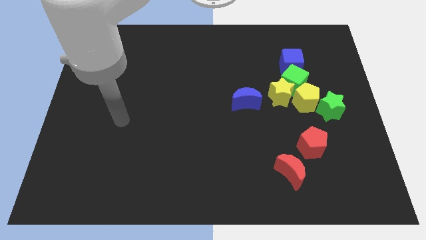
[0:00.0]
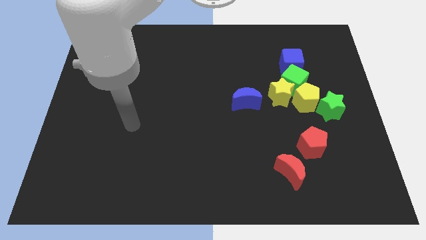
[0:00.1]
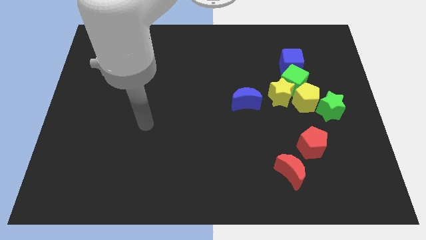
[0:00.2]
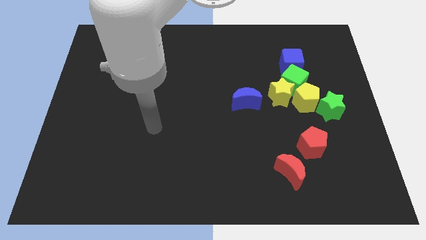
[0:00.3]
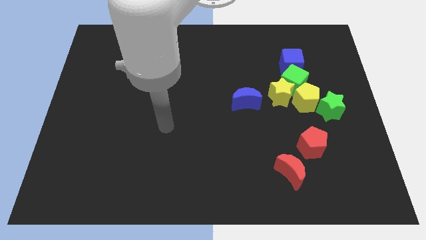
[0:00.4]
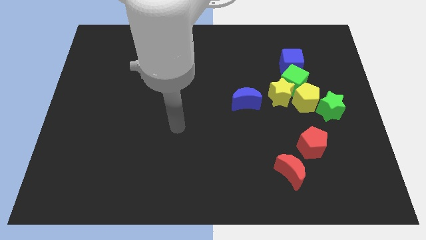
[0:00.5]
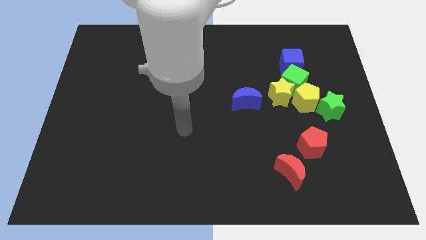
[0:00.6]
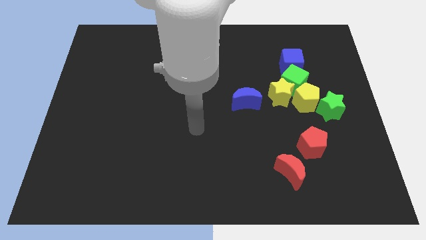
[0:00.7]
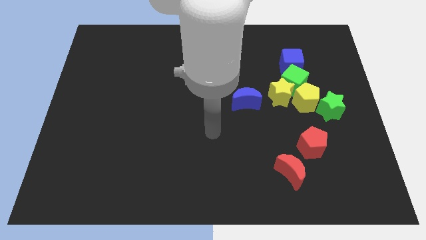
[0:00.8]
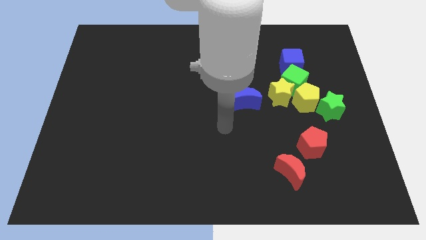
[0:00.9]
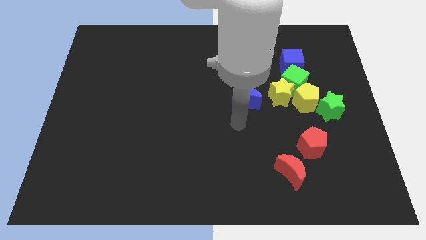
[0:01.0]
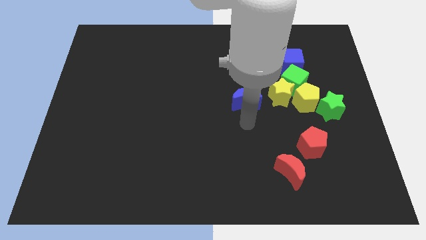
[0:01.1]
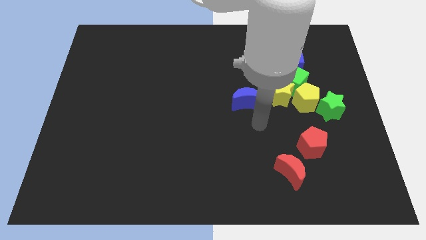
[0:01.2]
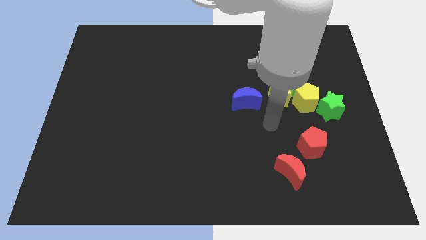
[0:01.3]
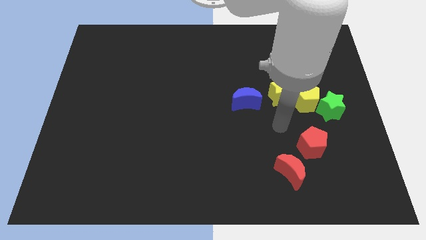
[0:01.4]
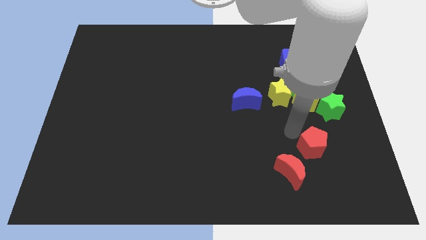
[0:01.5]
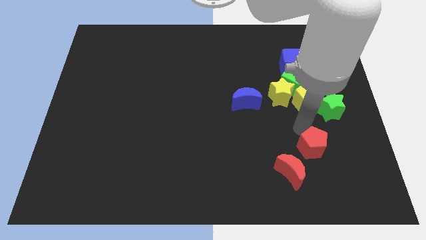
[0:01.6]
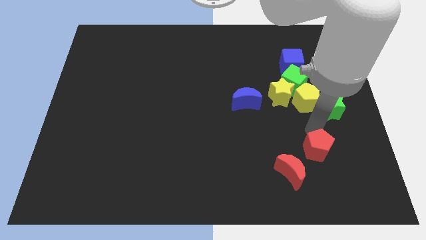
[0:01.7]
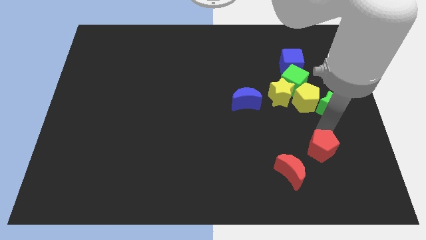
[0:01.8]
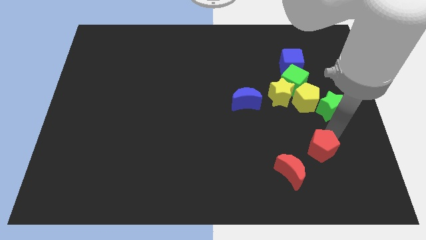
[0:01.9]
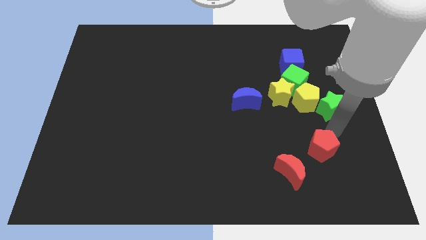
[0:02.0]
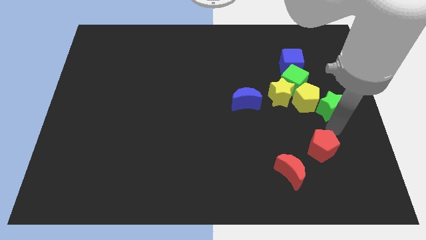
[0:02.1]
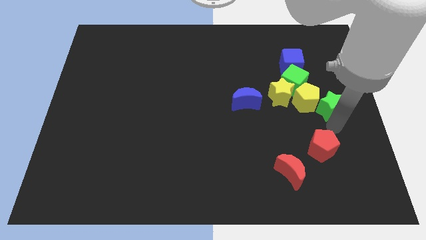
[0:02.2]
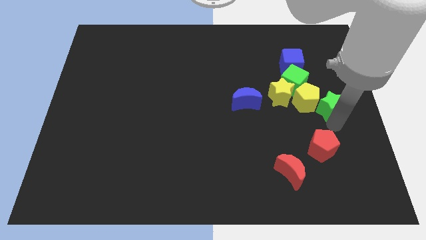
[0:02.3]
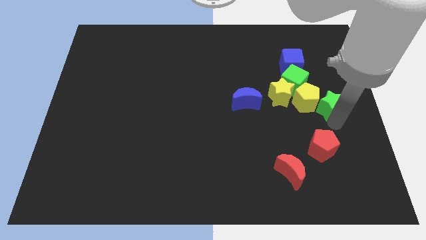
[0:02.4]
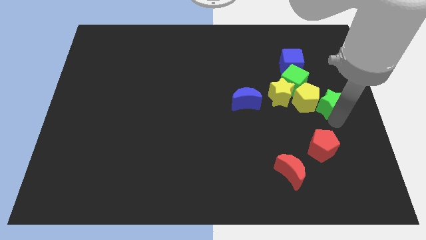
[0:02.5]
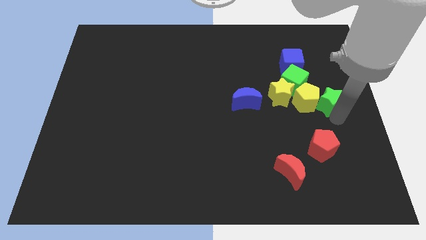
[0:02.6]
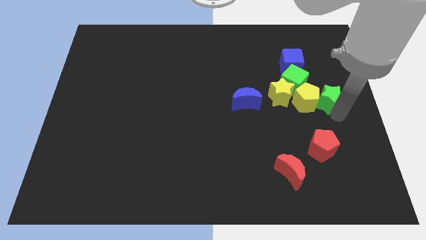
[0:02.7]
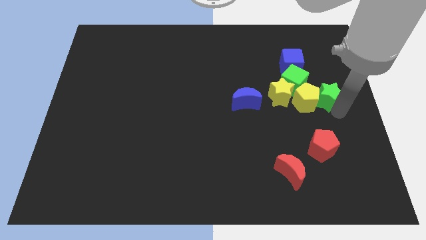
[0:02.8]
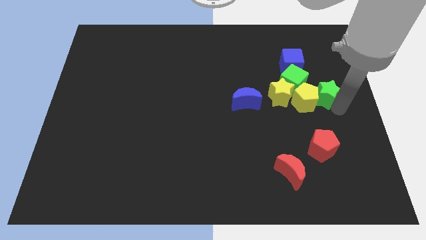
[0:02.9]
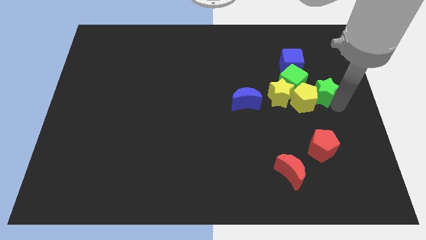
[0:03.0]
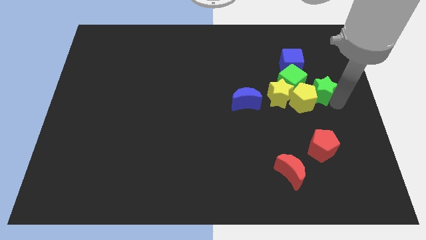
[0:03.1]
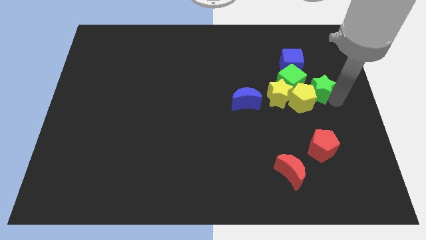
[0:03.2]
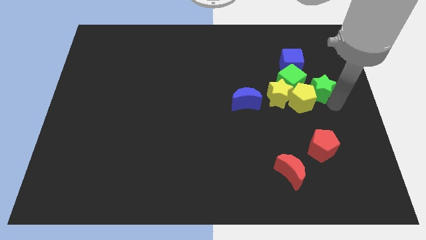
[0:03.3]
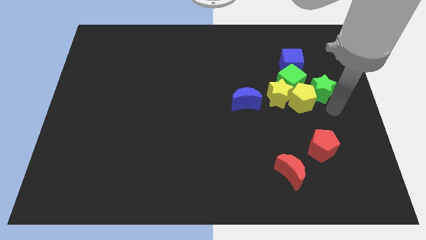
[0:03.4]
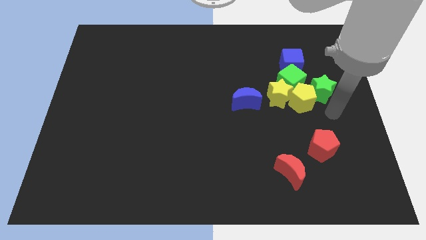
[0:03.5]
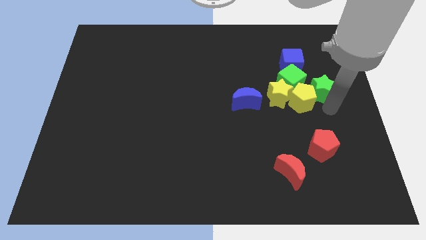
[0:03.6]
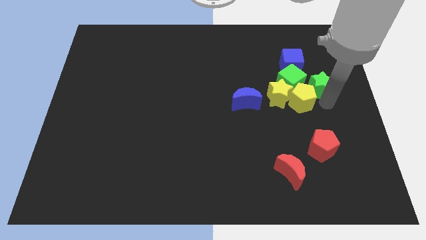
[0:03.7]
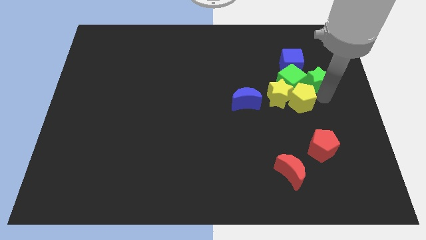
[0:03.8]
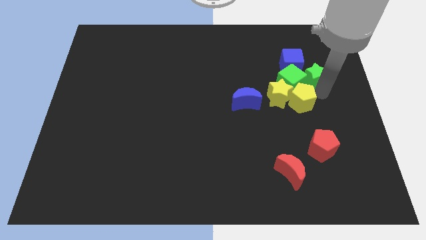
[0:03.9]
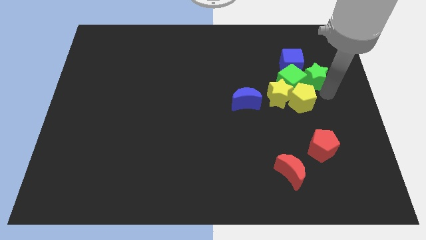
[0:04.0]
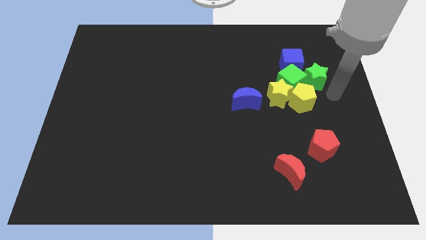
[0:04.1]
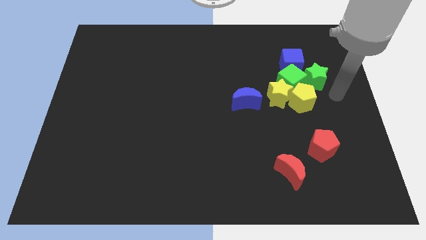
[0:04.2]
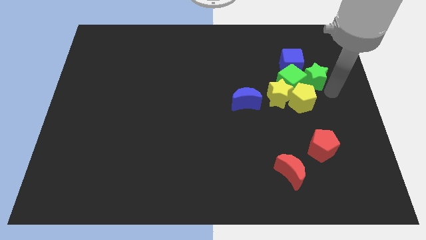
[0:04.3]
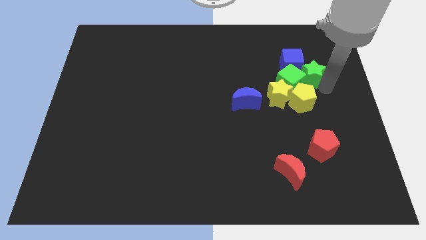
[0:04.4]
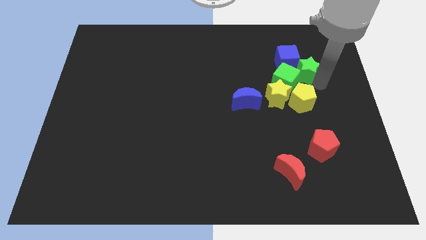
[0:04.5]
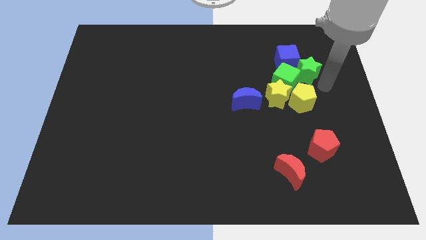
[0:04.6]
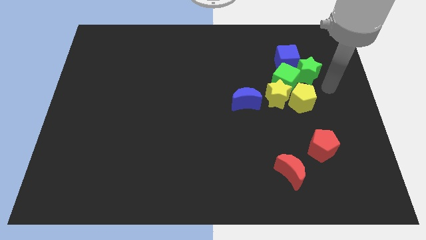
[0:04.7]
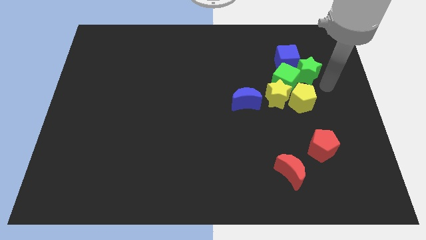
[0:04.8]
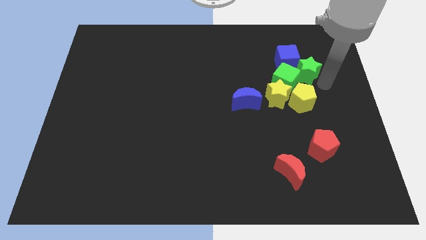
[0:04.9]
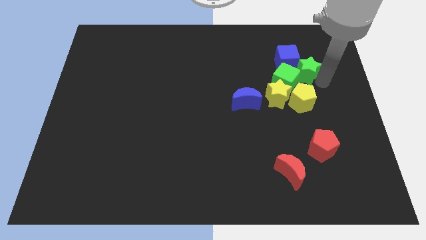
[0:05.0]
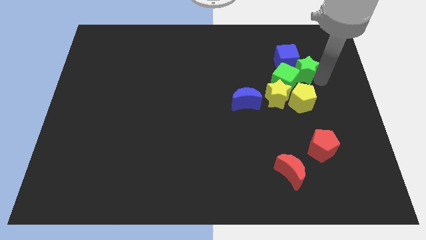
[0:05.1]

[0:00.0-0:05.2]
move the green star to the blue cube

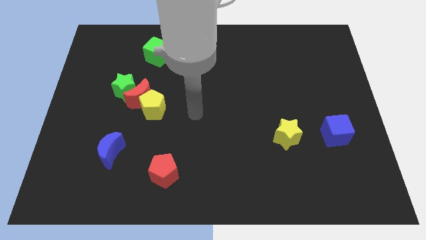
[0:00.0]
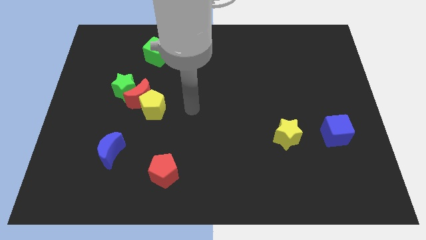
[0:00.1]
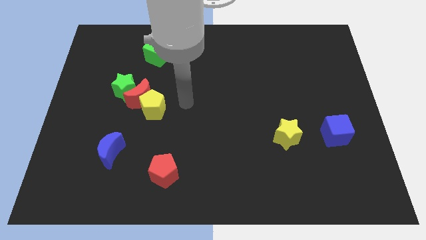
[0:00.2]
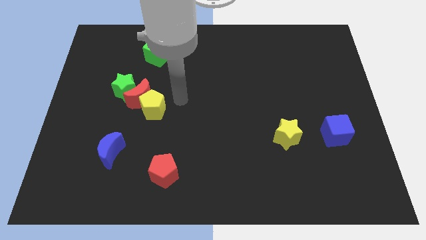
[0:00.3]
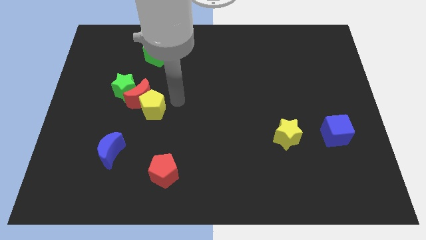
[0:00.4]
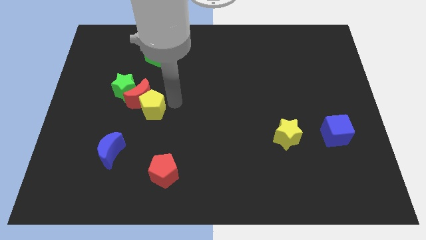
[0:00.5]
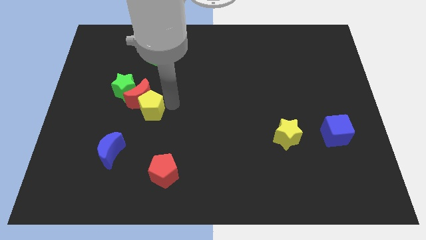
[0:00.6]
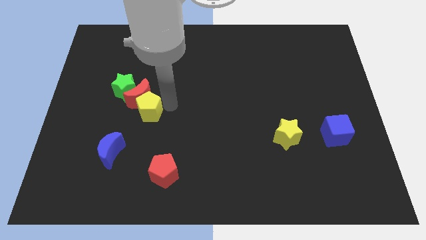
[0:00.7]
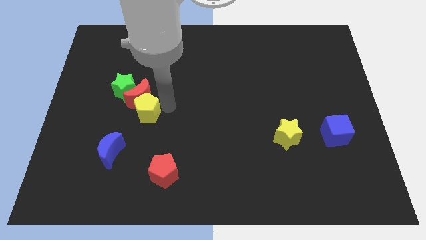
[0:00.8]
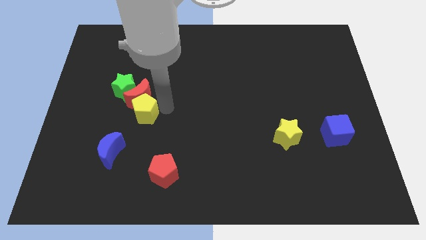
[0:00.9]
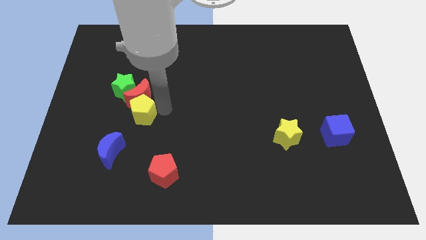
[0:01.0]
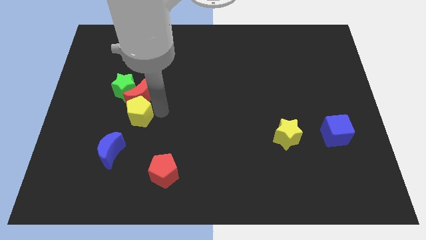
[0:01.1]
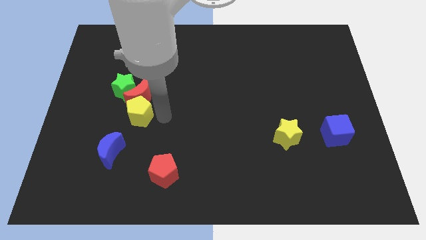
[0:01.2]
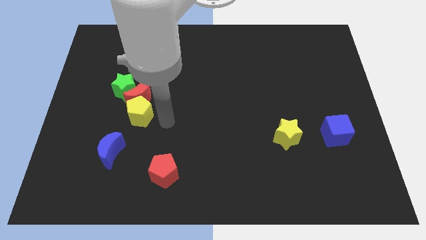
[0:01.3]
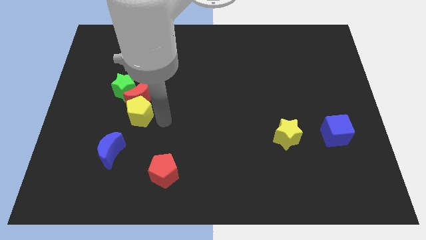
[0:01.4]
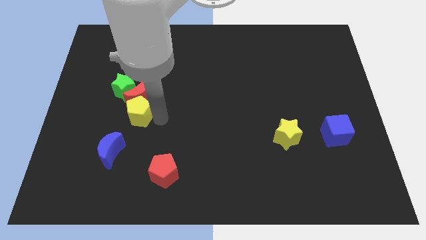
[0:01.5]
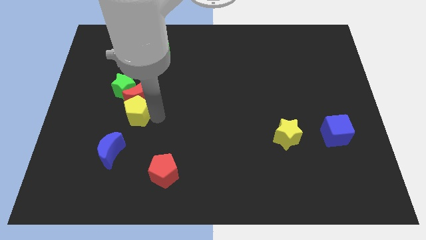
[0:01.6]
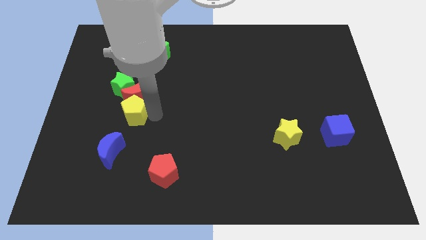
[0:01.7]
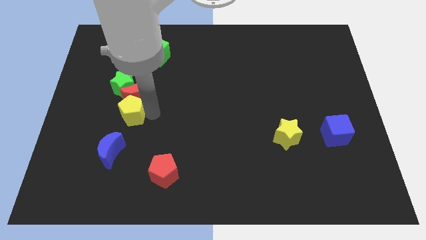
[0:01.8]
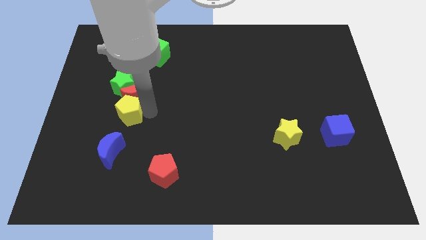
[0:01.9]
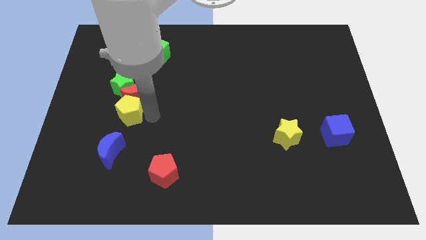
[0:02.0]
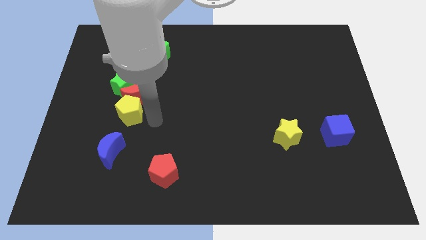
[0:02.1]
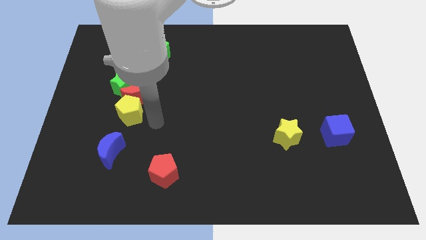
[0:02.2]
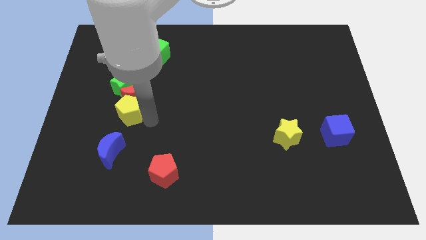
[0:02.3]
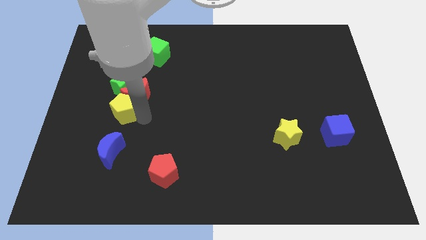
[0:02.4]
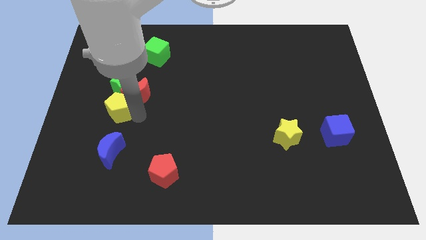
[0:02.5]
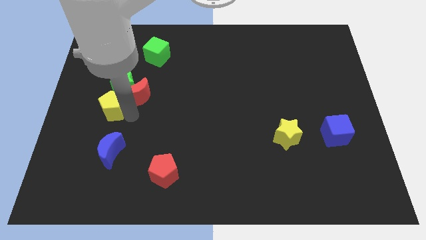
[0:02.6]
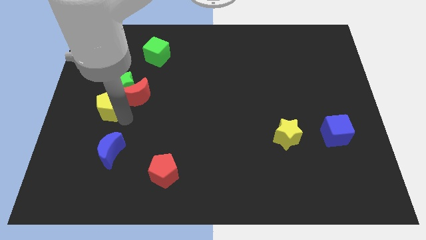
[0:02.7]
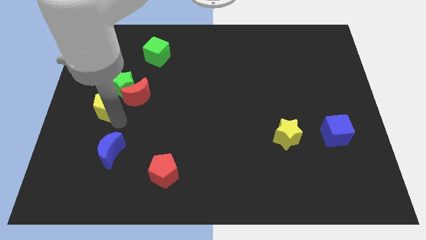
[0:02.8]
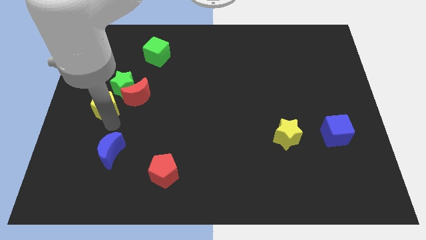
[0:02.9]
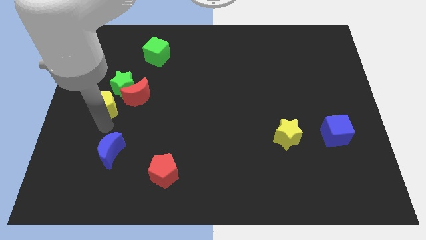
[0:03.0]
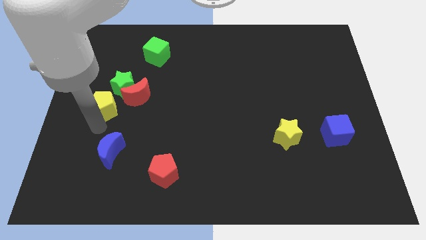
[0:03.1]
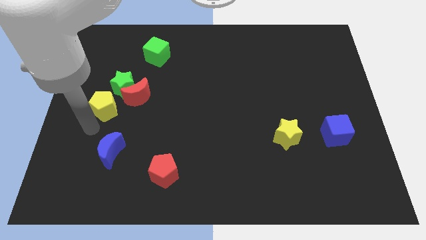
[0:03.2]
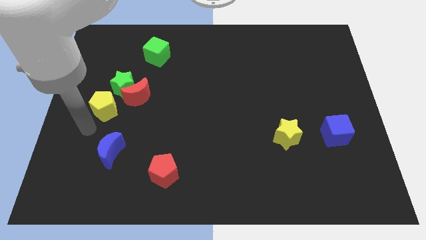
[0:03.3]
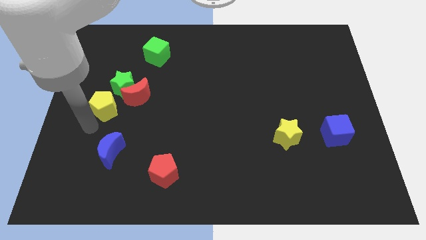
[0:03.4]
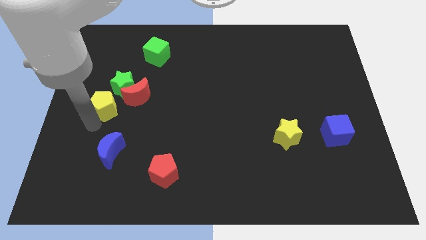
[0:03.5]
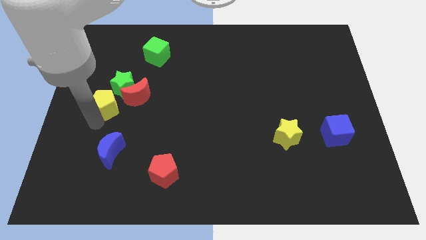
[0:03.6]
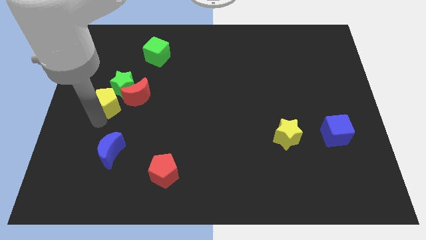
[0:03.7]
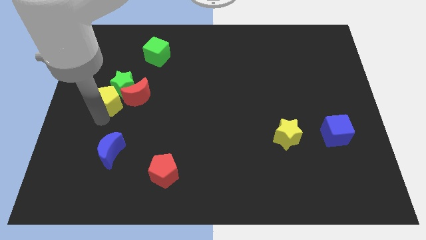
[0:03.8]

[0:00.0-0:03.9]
push the yellow pentagon to the green star
